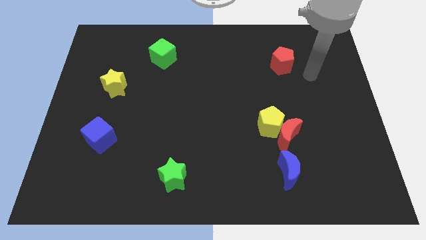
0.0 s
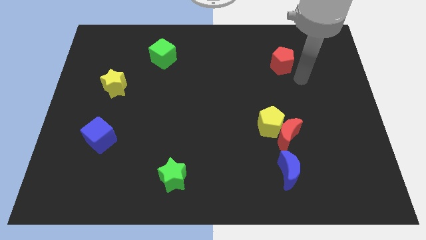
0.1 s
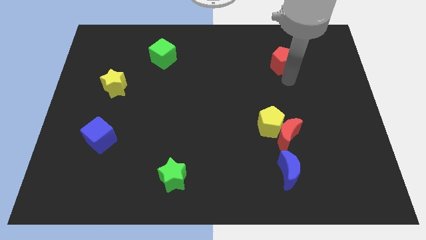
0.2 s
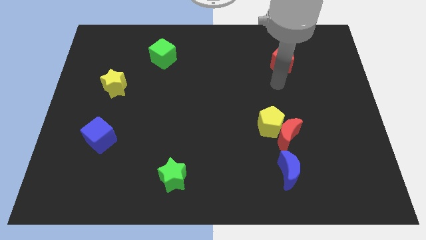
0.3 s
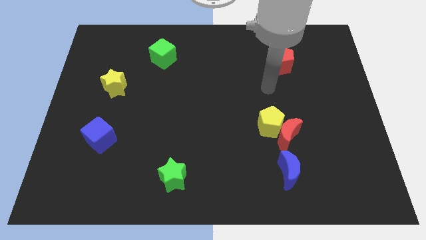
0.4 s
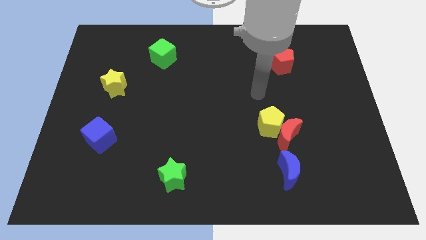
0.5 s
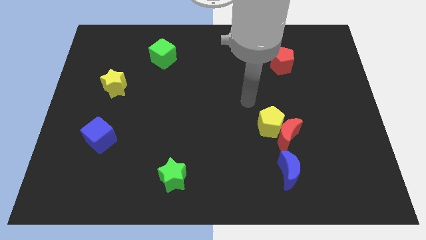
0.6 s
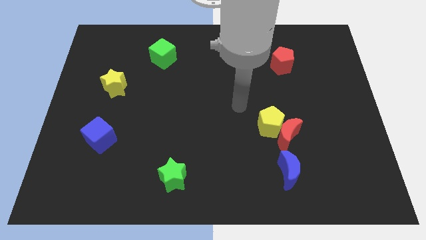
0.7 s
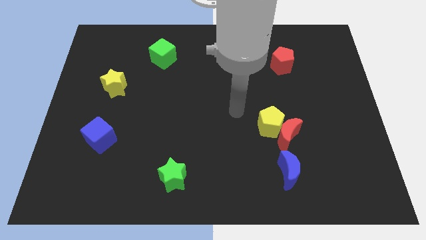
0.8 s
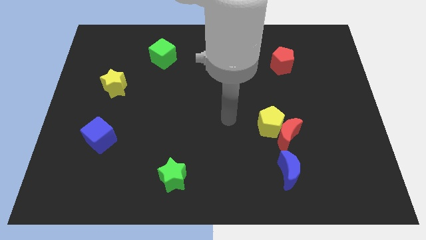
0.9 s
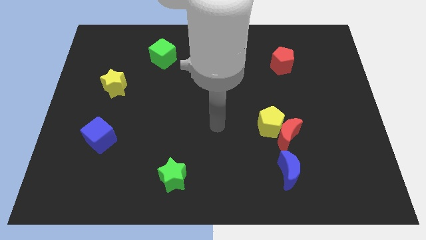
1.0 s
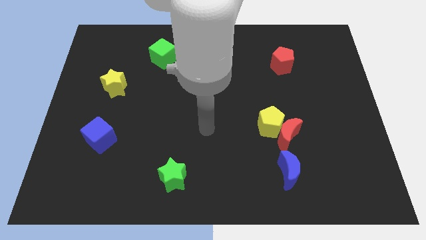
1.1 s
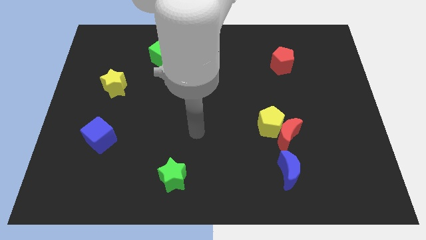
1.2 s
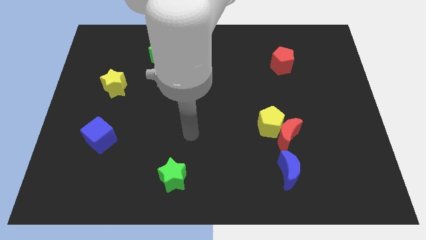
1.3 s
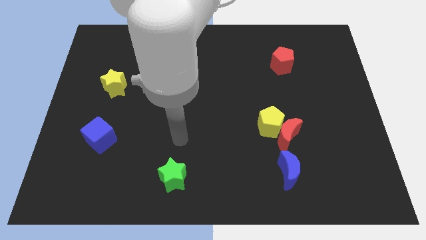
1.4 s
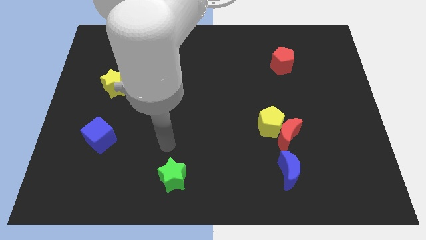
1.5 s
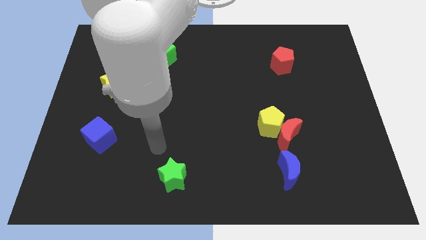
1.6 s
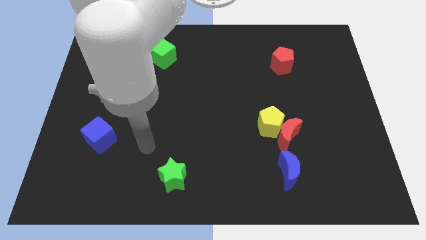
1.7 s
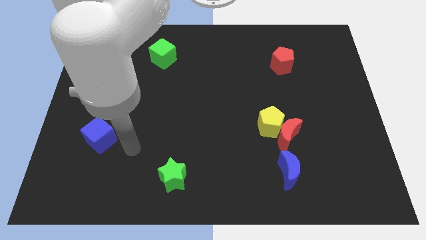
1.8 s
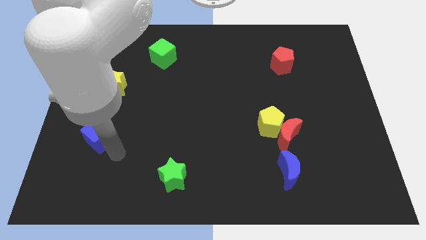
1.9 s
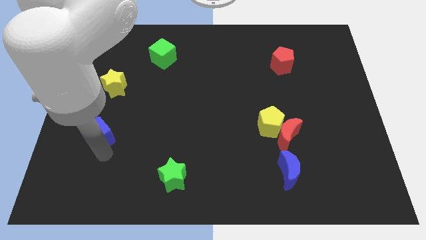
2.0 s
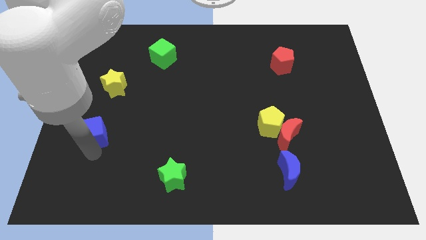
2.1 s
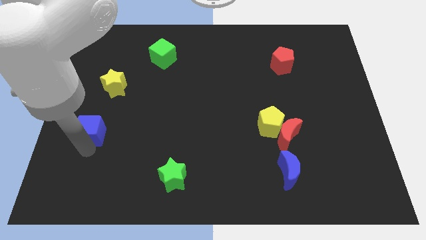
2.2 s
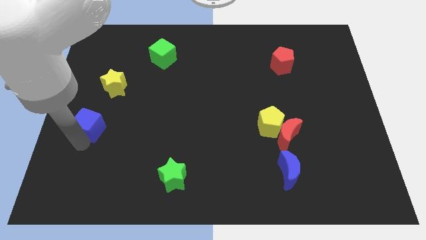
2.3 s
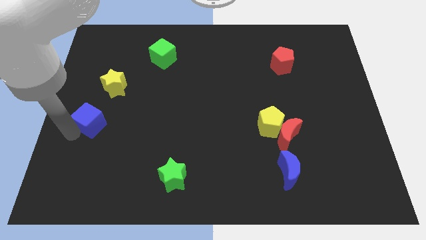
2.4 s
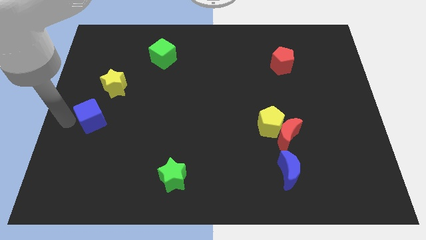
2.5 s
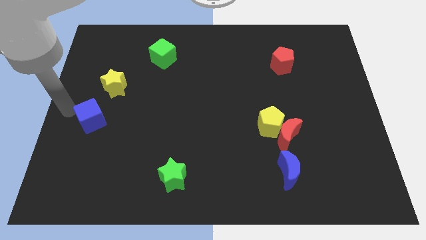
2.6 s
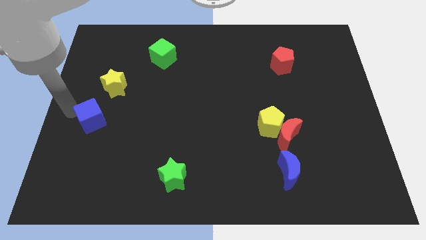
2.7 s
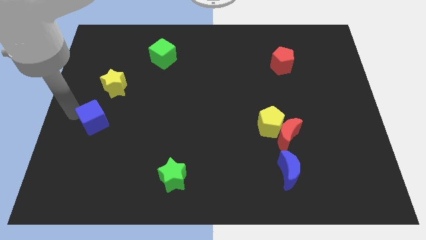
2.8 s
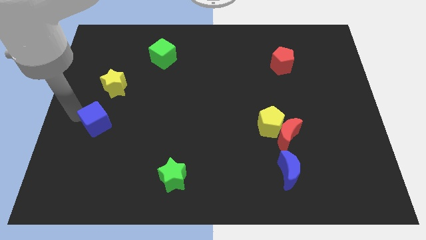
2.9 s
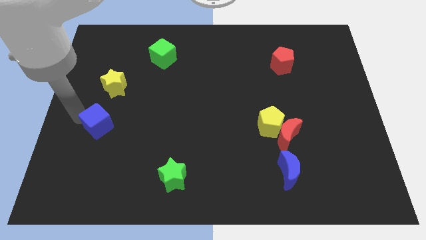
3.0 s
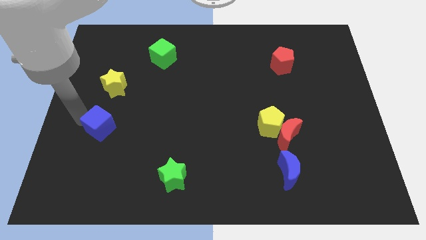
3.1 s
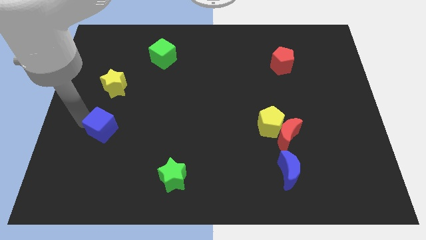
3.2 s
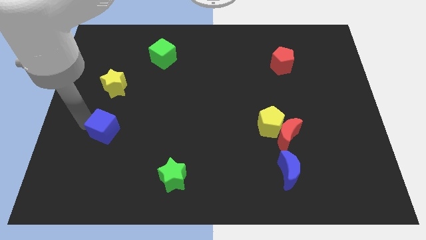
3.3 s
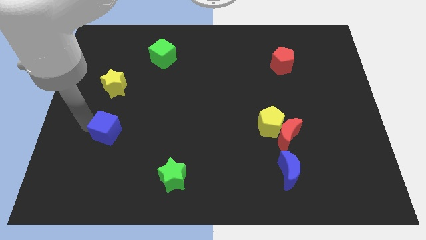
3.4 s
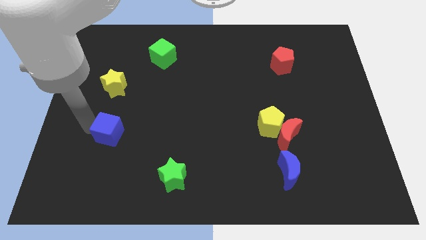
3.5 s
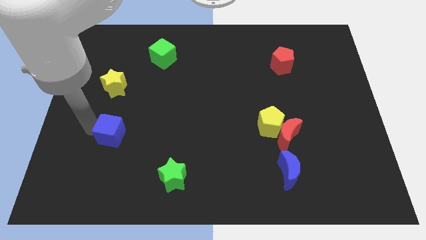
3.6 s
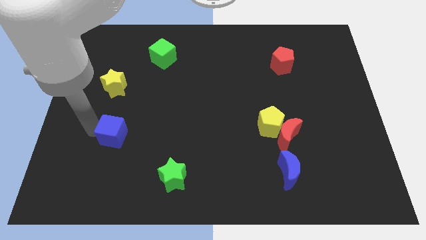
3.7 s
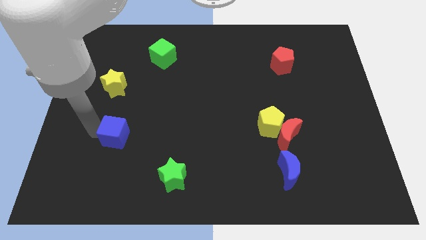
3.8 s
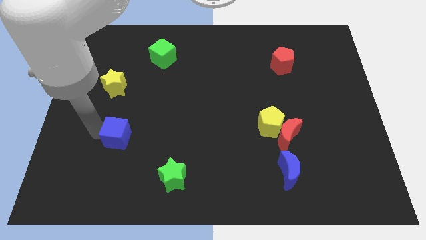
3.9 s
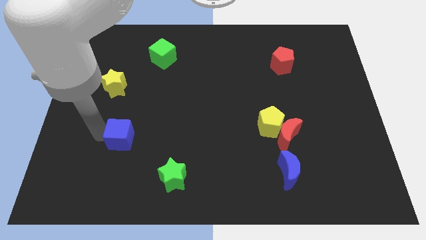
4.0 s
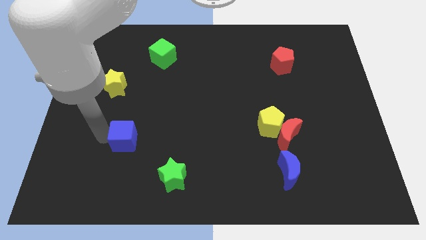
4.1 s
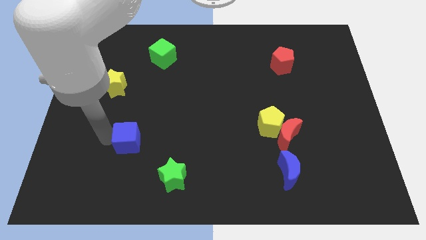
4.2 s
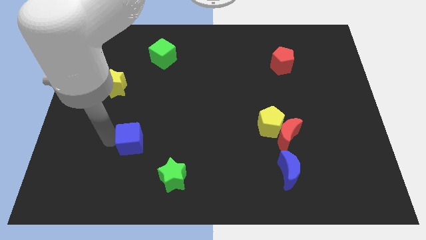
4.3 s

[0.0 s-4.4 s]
move the blue cube right a bit

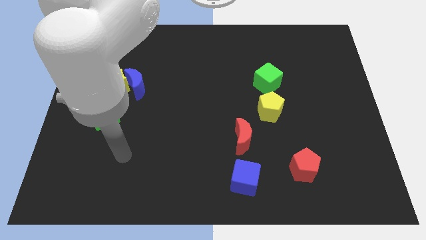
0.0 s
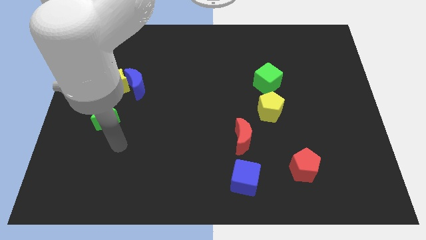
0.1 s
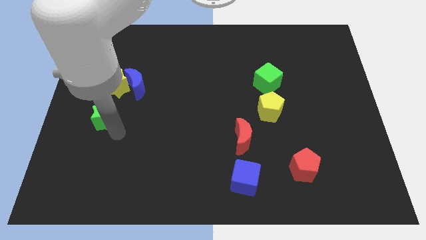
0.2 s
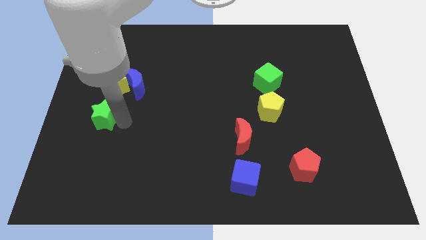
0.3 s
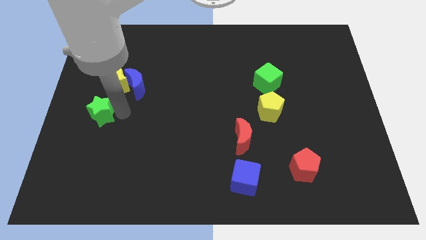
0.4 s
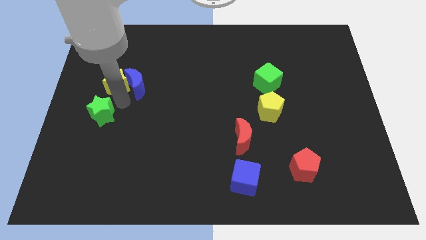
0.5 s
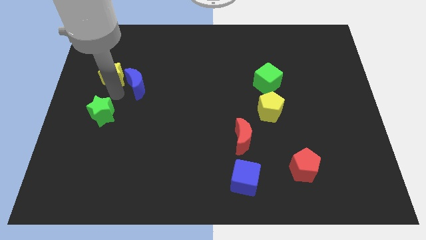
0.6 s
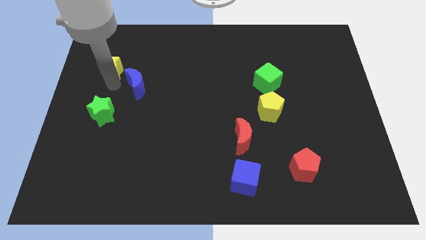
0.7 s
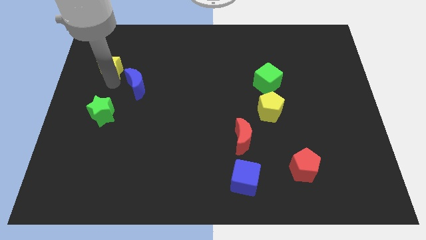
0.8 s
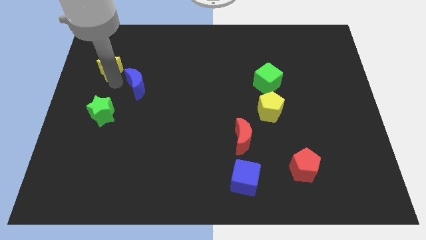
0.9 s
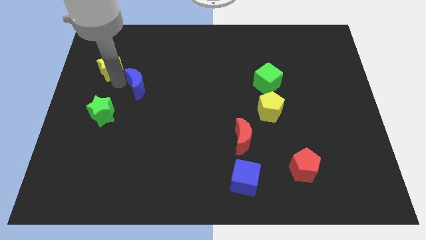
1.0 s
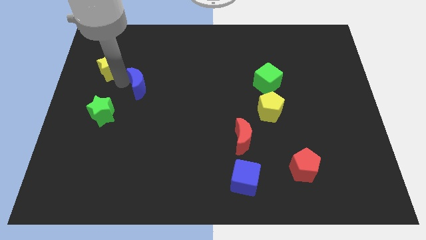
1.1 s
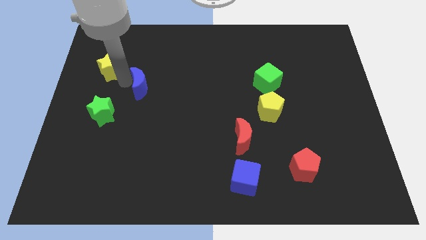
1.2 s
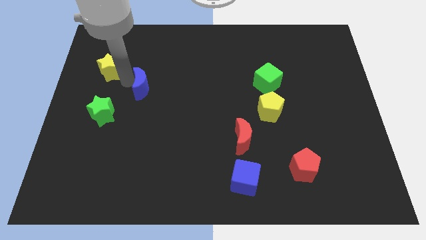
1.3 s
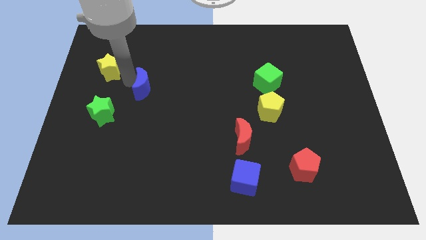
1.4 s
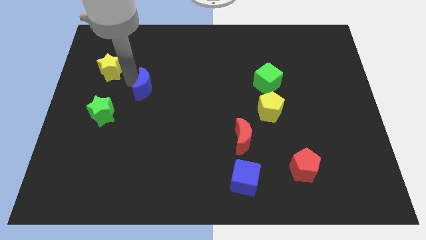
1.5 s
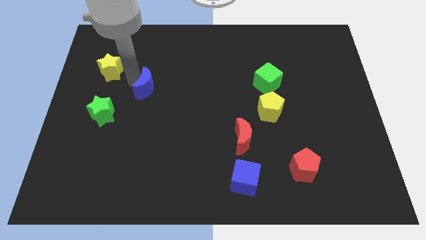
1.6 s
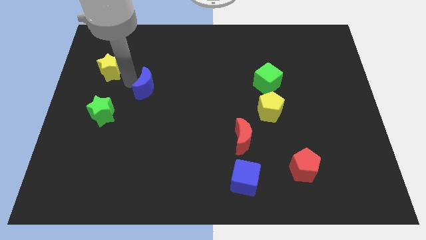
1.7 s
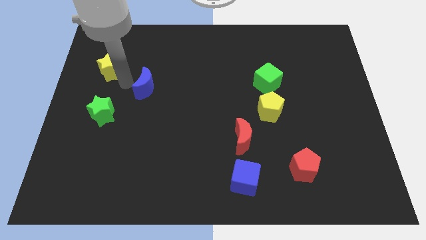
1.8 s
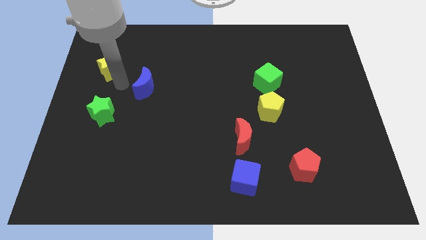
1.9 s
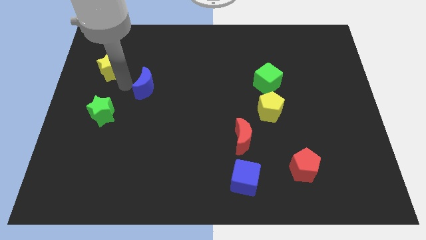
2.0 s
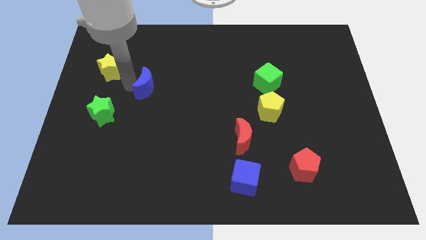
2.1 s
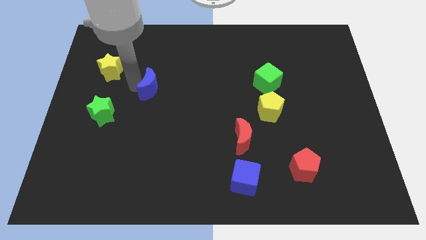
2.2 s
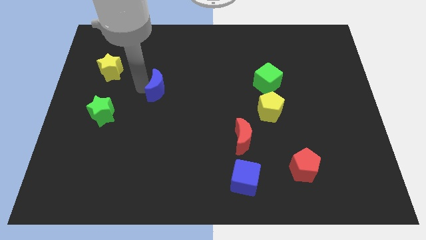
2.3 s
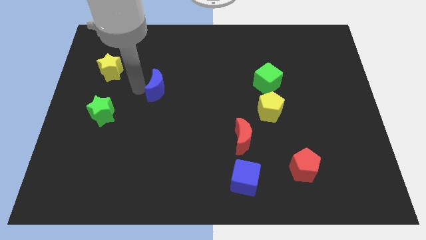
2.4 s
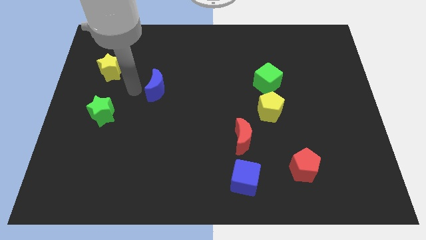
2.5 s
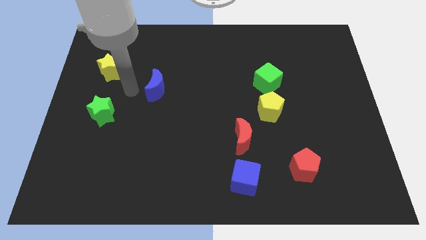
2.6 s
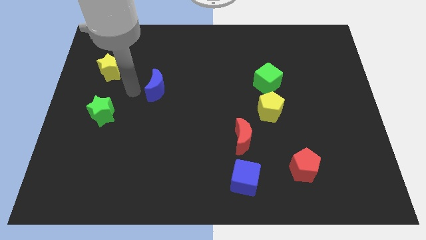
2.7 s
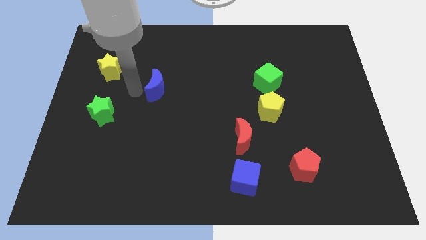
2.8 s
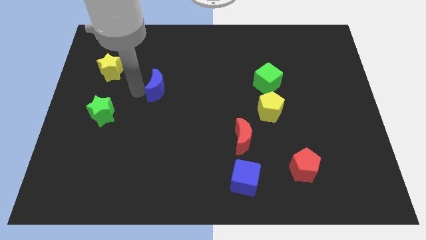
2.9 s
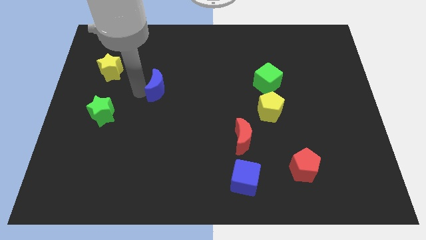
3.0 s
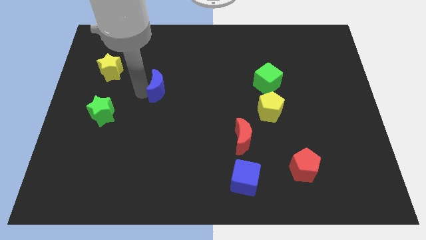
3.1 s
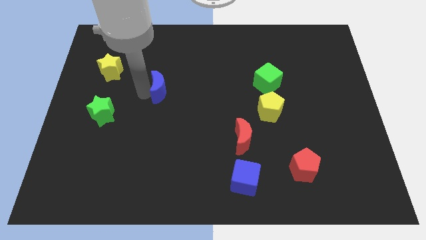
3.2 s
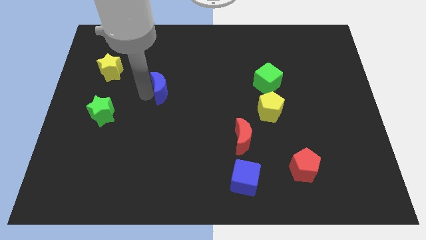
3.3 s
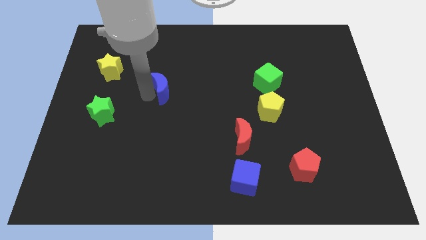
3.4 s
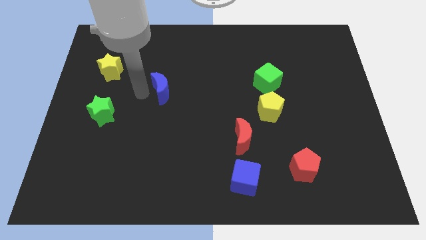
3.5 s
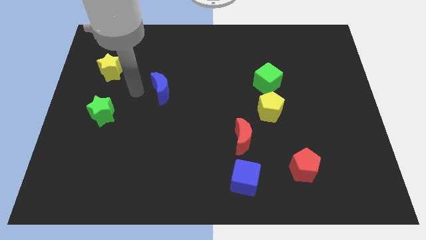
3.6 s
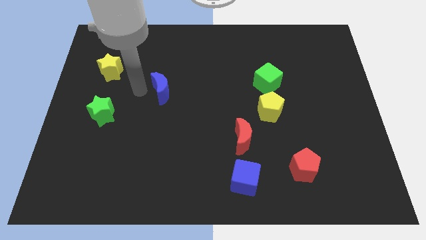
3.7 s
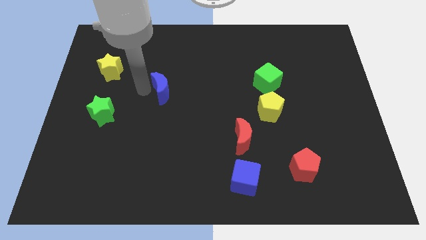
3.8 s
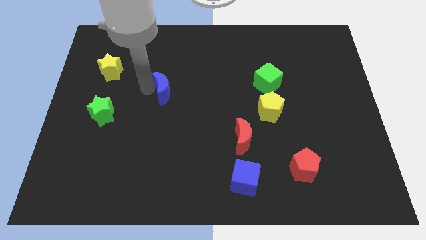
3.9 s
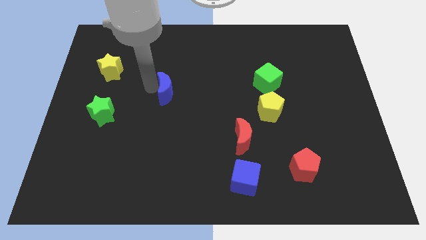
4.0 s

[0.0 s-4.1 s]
move the blue moon slightly to the right
